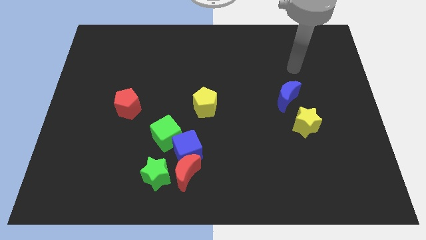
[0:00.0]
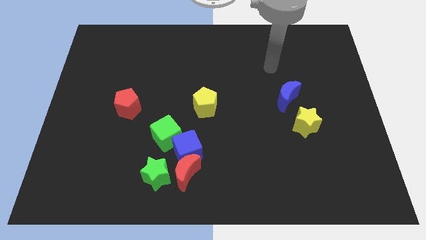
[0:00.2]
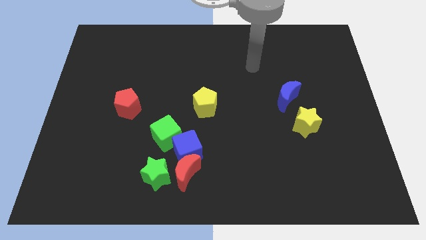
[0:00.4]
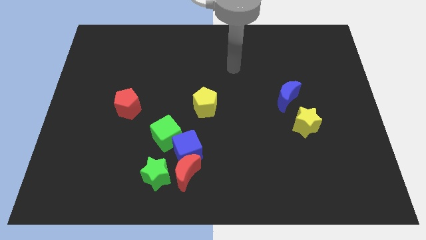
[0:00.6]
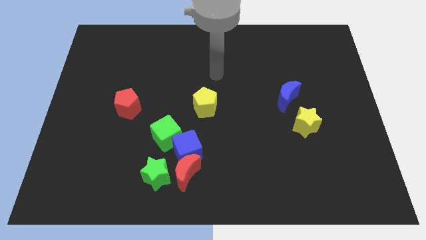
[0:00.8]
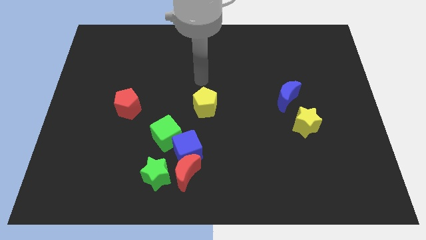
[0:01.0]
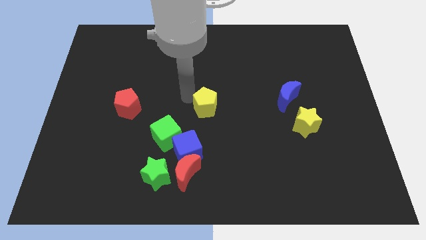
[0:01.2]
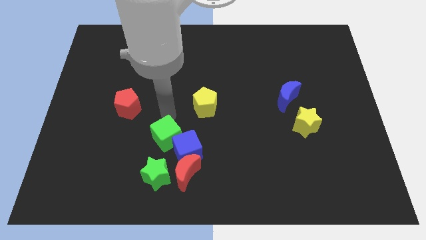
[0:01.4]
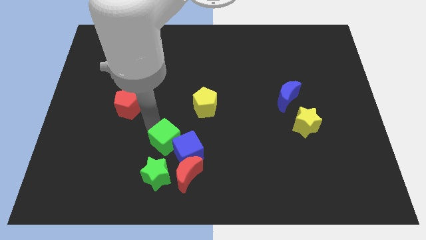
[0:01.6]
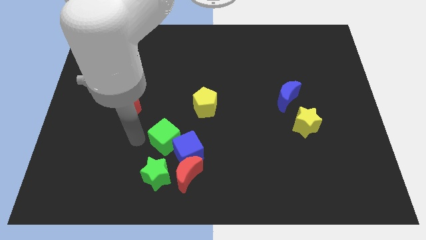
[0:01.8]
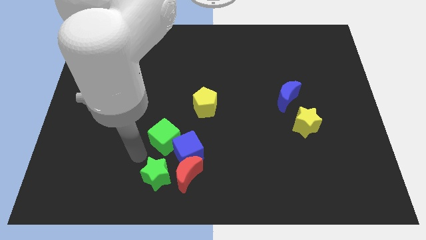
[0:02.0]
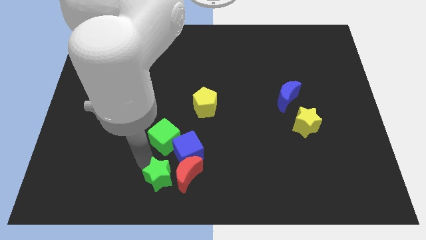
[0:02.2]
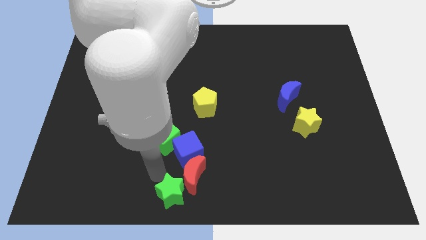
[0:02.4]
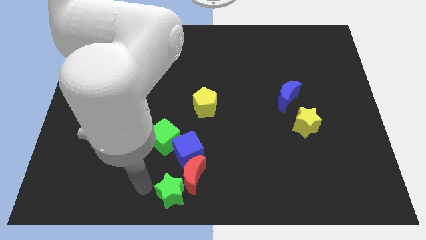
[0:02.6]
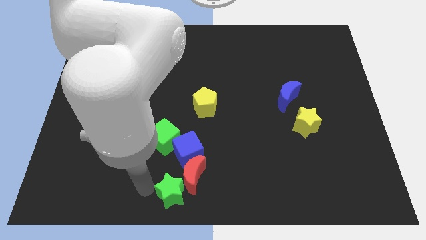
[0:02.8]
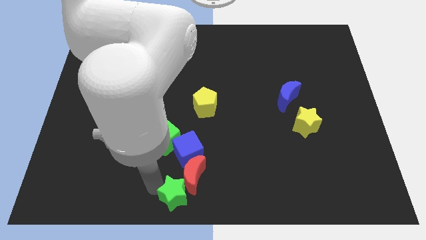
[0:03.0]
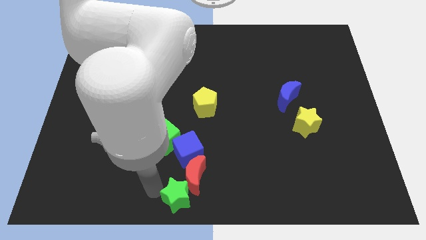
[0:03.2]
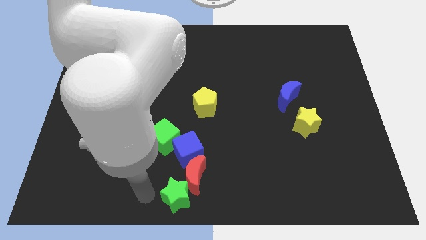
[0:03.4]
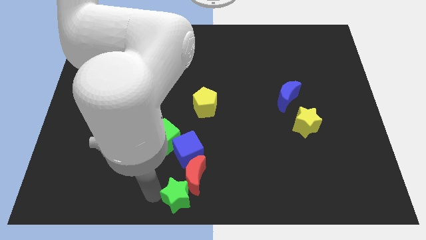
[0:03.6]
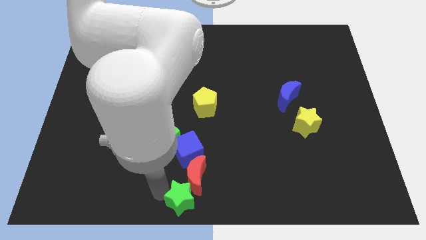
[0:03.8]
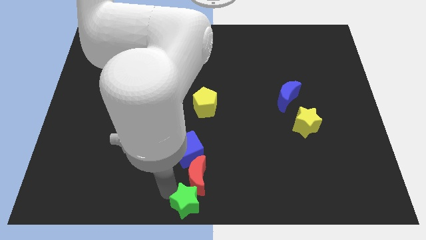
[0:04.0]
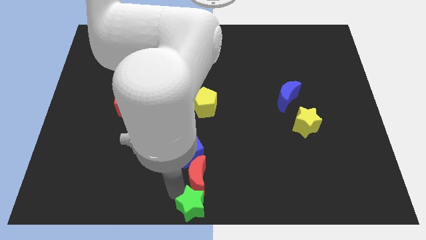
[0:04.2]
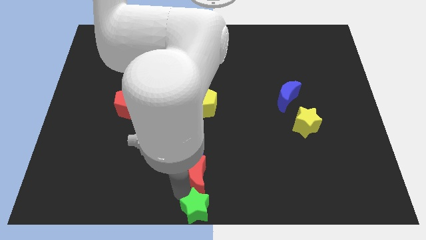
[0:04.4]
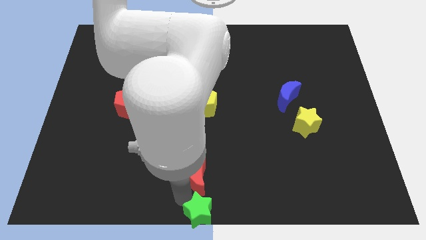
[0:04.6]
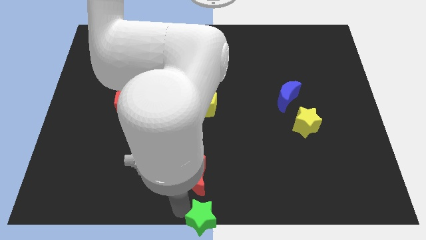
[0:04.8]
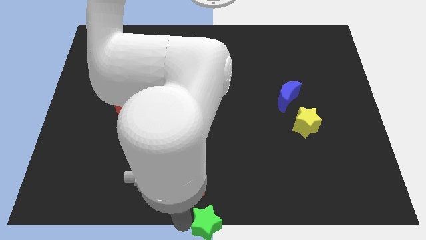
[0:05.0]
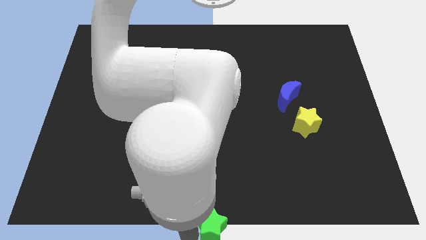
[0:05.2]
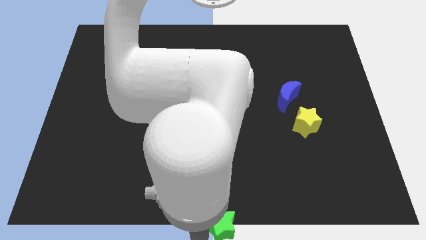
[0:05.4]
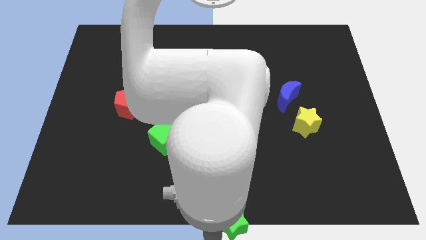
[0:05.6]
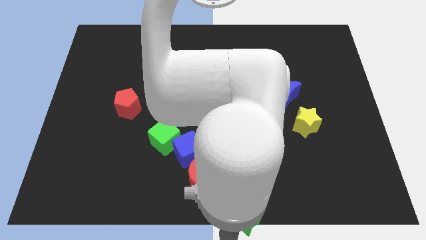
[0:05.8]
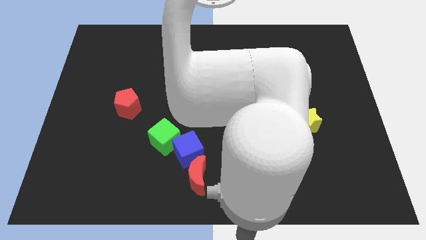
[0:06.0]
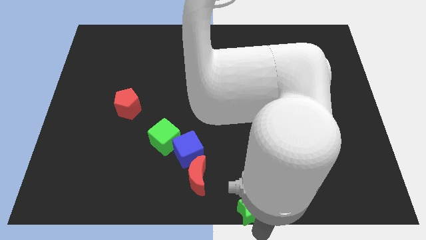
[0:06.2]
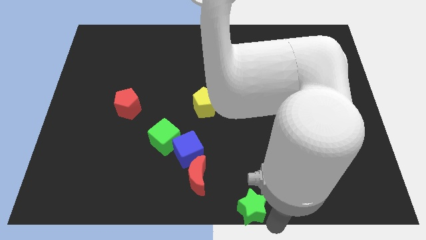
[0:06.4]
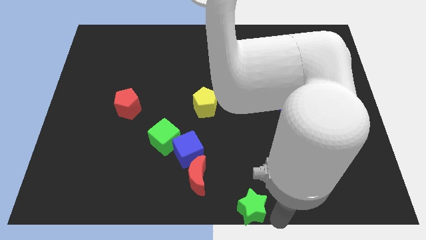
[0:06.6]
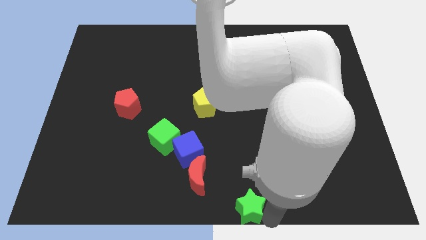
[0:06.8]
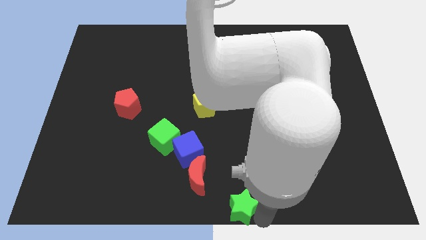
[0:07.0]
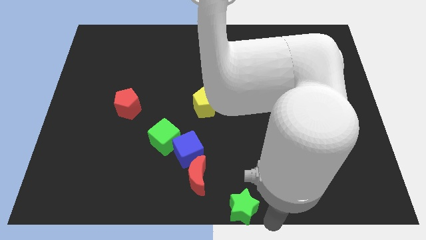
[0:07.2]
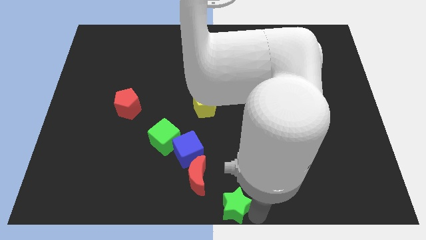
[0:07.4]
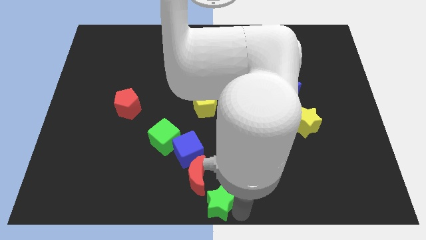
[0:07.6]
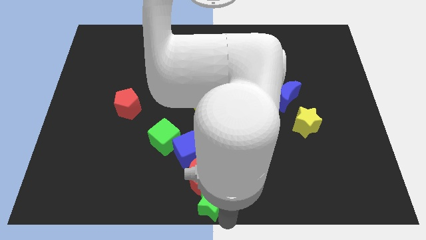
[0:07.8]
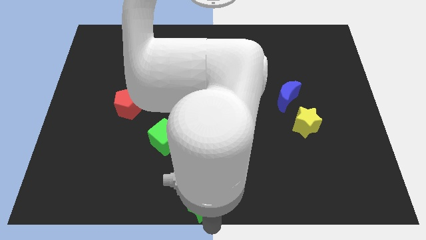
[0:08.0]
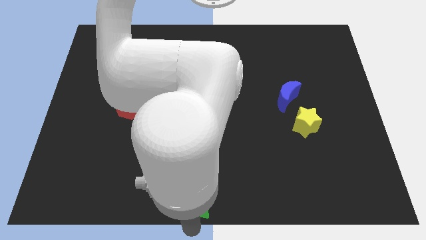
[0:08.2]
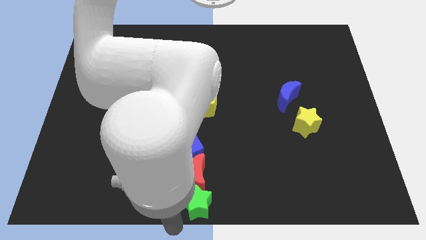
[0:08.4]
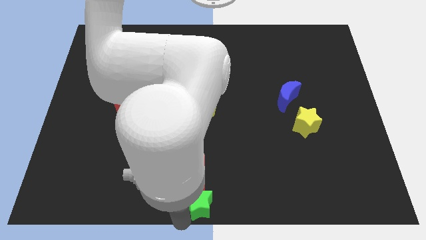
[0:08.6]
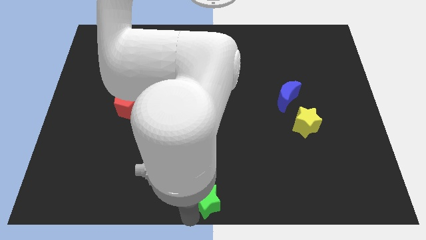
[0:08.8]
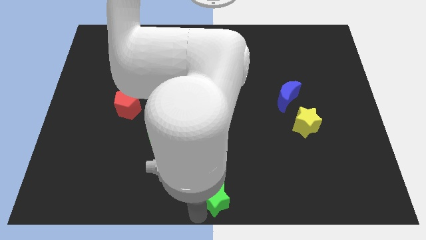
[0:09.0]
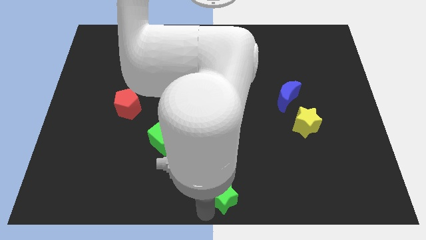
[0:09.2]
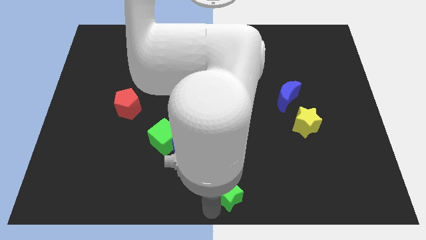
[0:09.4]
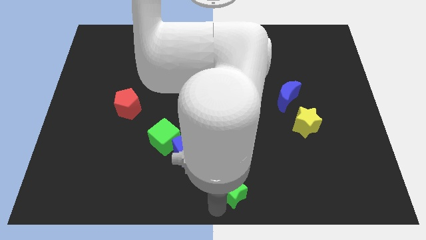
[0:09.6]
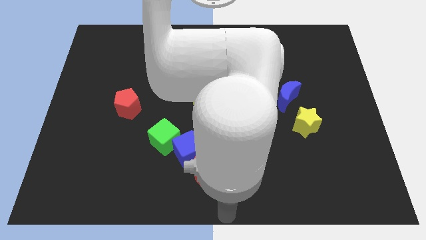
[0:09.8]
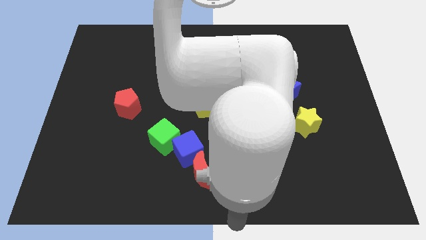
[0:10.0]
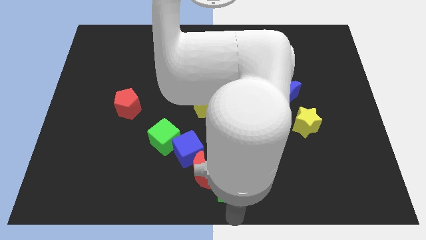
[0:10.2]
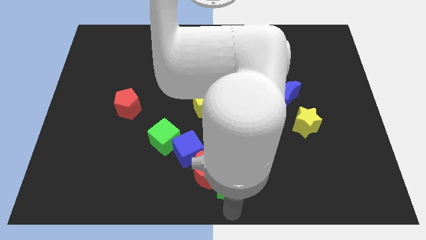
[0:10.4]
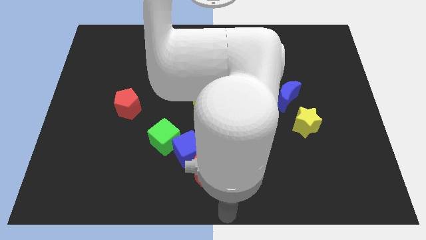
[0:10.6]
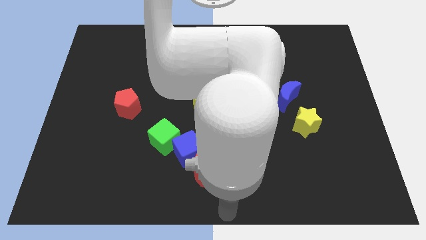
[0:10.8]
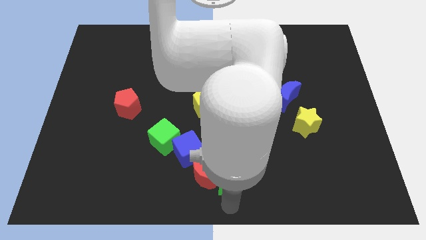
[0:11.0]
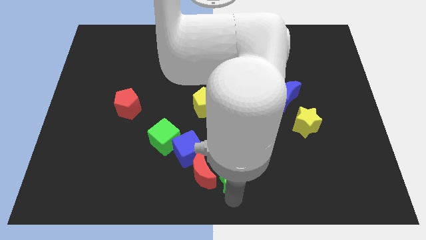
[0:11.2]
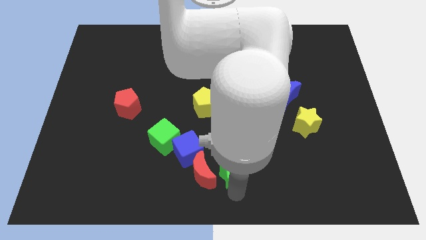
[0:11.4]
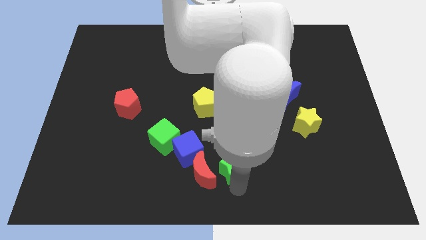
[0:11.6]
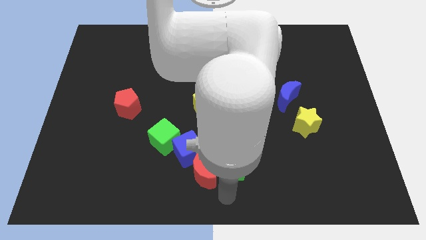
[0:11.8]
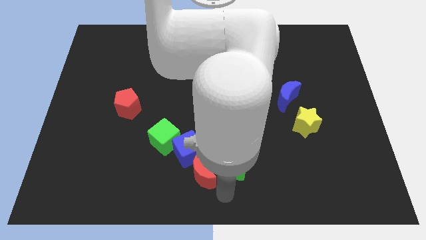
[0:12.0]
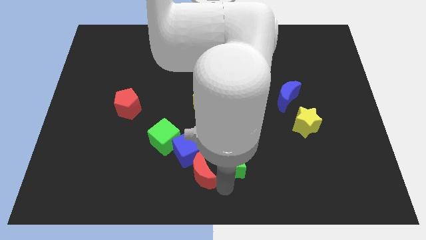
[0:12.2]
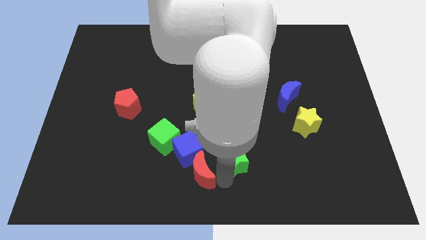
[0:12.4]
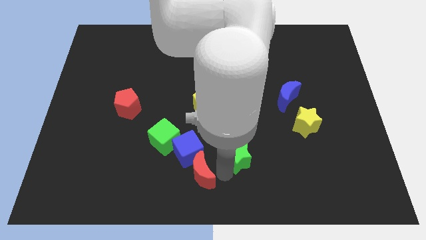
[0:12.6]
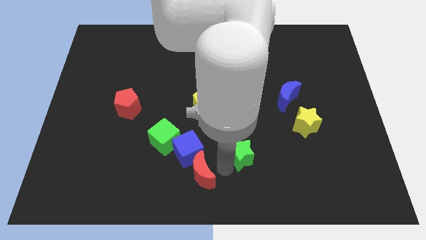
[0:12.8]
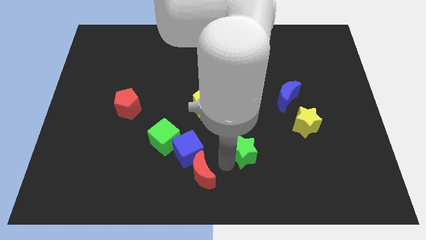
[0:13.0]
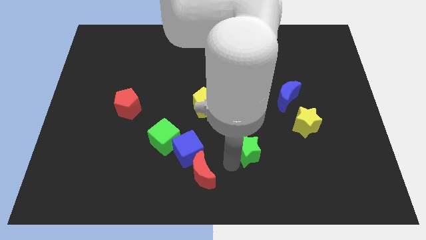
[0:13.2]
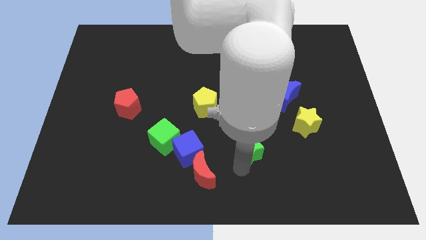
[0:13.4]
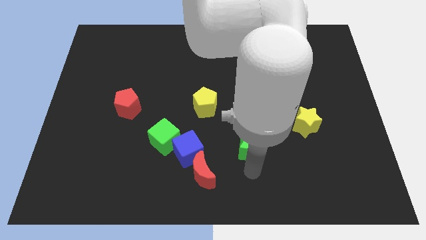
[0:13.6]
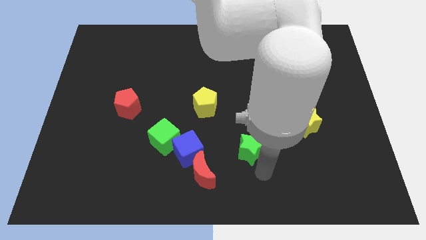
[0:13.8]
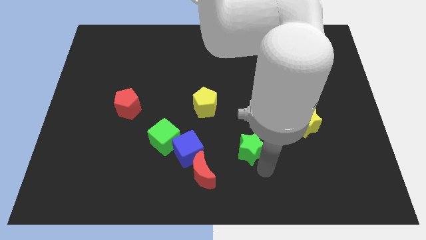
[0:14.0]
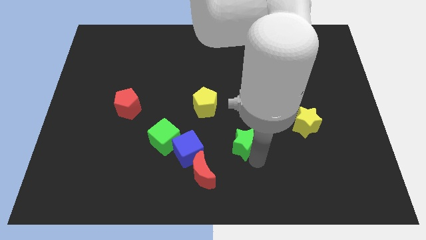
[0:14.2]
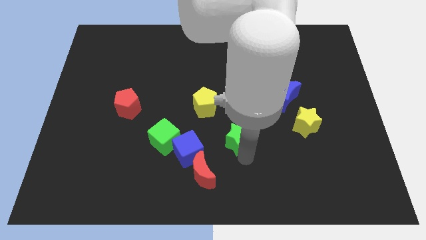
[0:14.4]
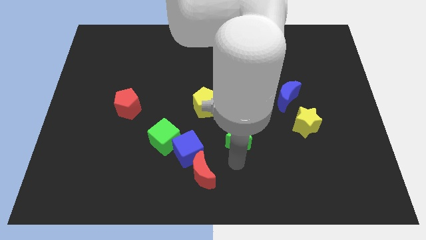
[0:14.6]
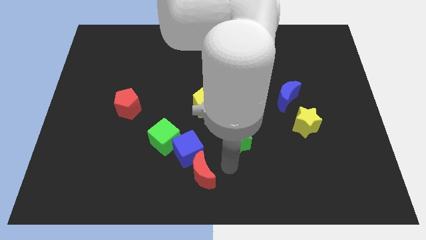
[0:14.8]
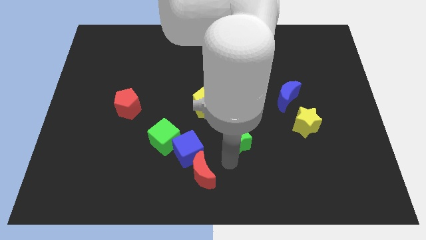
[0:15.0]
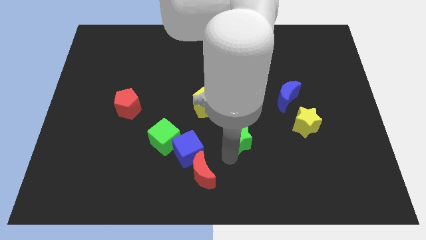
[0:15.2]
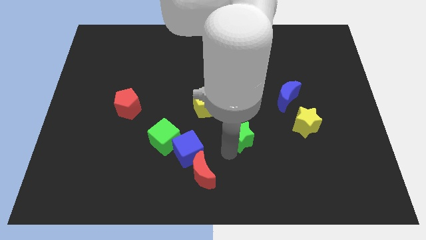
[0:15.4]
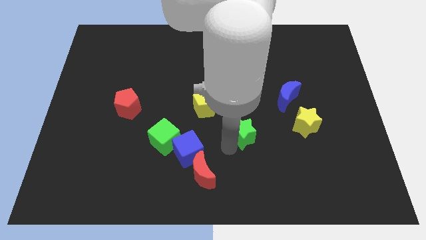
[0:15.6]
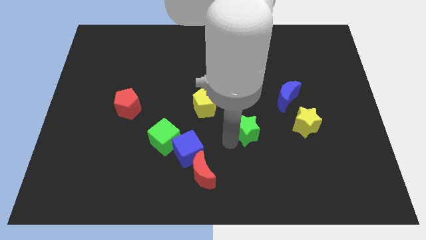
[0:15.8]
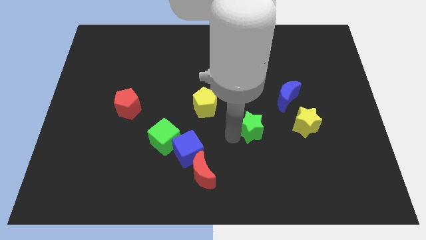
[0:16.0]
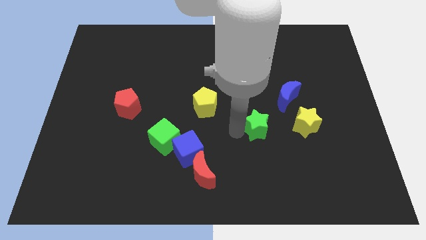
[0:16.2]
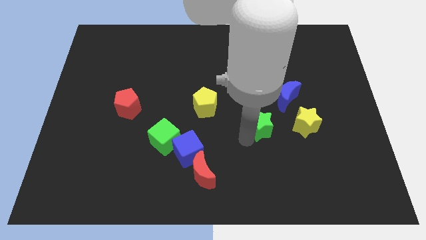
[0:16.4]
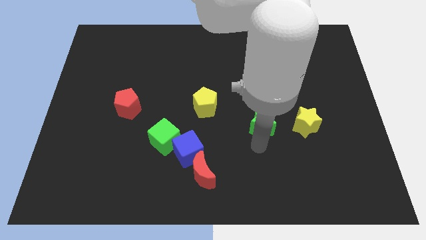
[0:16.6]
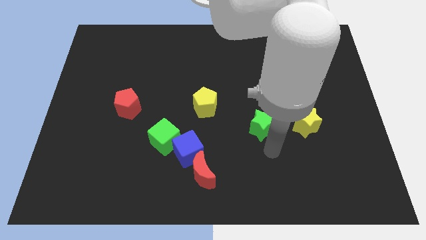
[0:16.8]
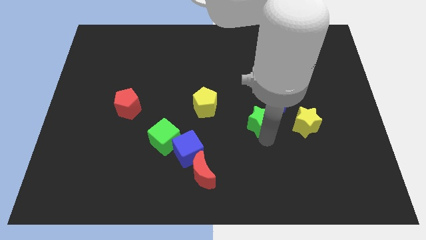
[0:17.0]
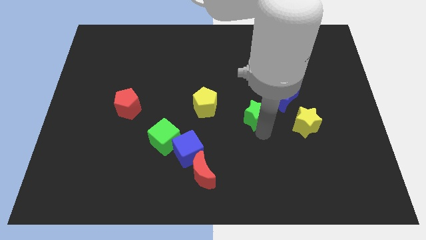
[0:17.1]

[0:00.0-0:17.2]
push the green star to the right side of the yellow pentagon
